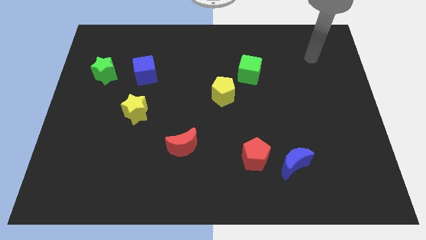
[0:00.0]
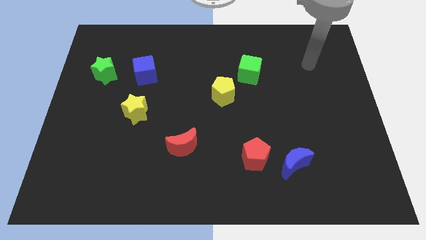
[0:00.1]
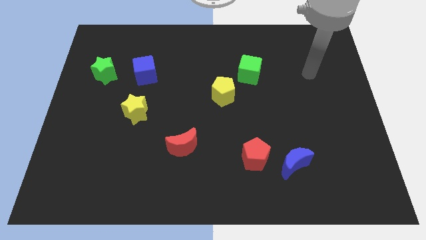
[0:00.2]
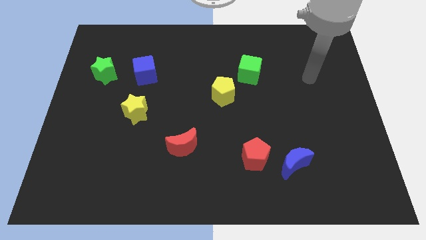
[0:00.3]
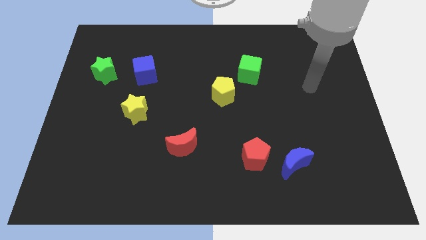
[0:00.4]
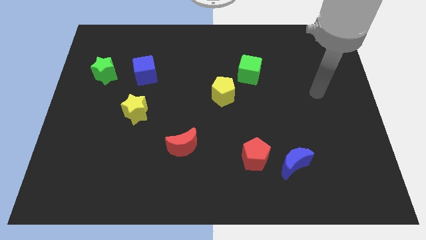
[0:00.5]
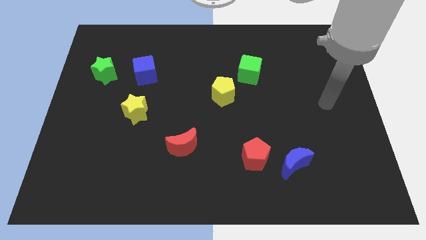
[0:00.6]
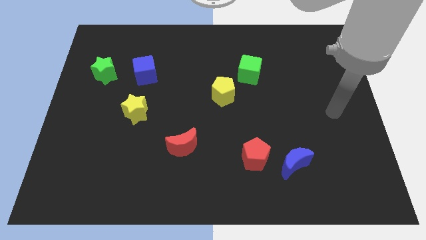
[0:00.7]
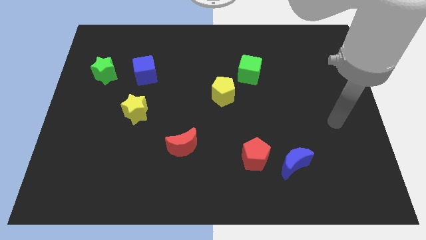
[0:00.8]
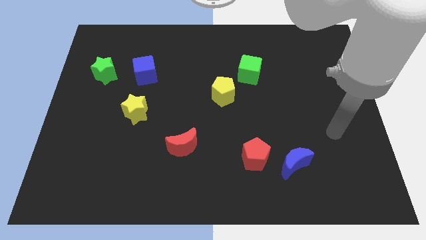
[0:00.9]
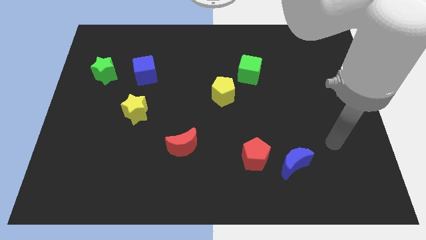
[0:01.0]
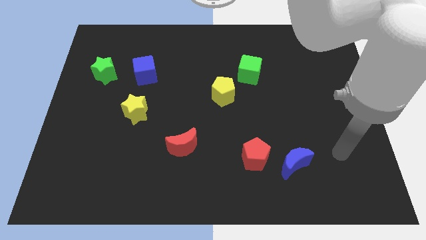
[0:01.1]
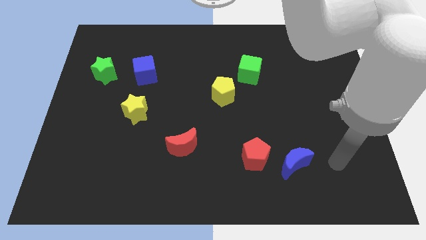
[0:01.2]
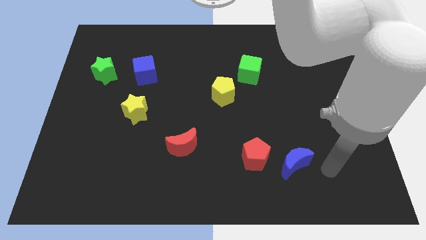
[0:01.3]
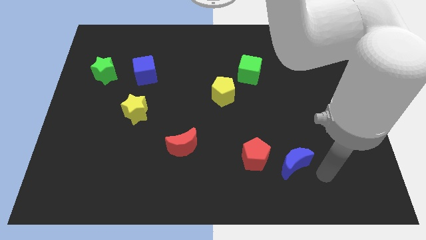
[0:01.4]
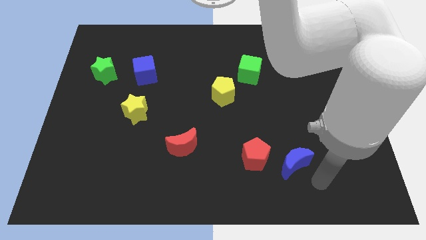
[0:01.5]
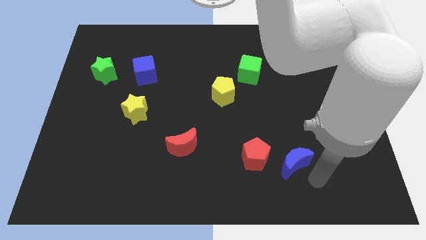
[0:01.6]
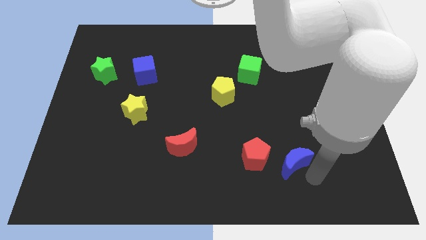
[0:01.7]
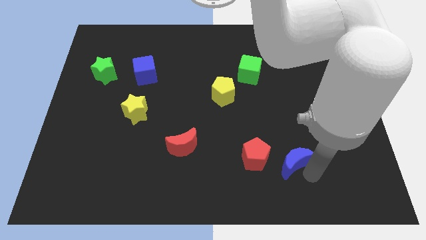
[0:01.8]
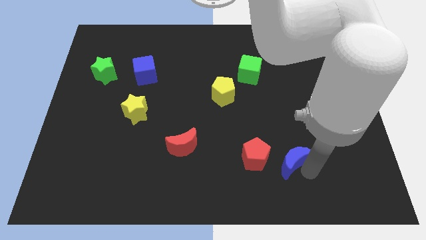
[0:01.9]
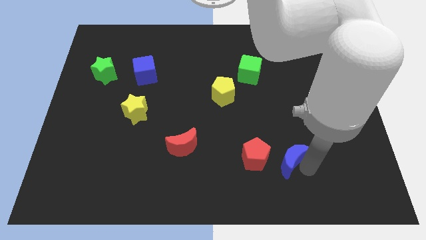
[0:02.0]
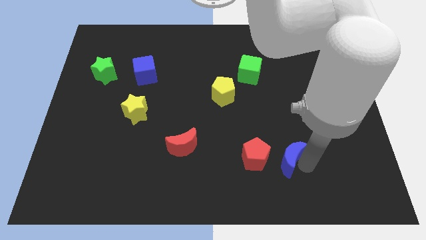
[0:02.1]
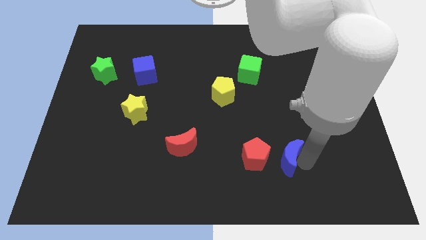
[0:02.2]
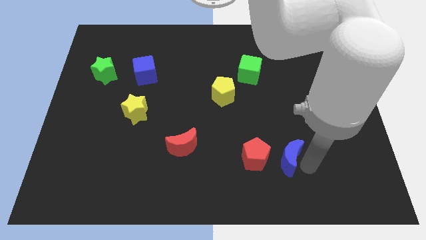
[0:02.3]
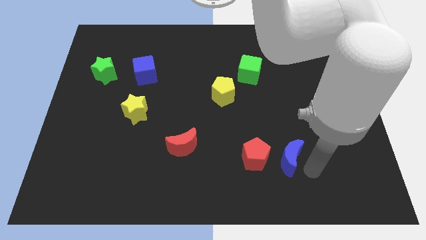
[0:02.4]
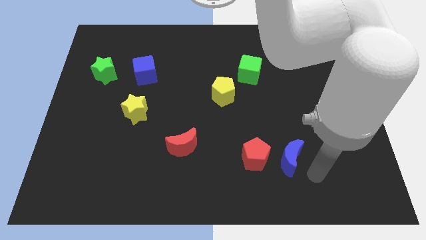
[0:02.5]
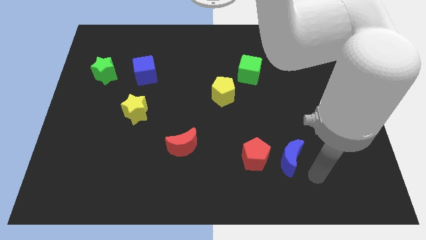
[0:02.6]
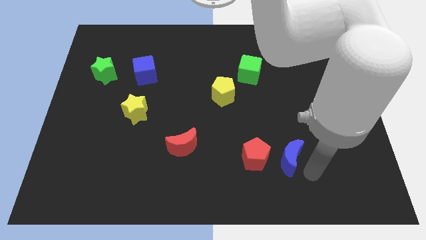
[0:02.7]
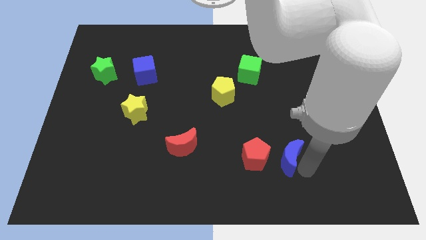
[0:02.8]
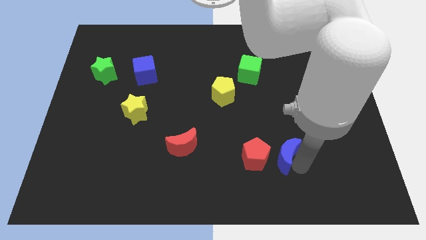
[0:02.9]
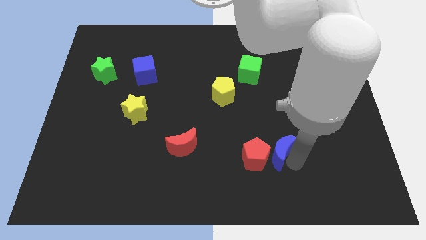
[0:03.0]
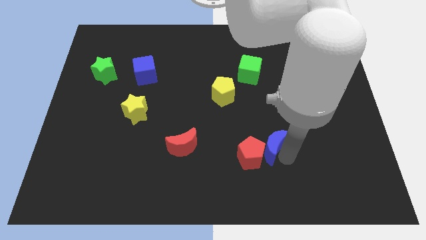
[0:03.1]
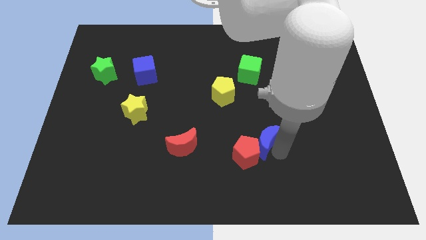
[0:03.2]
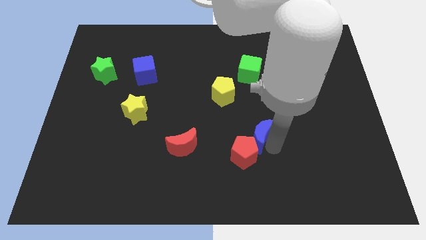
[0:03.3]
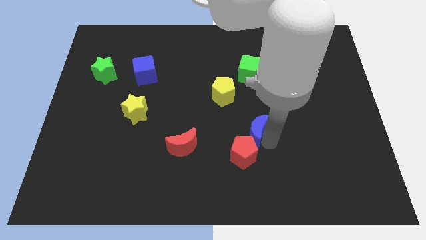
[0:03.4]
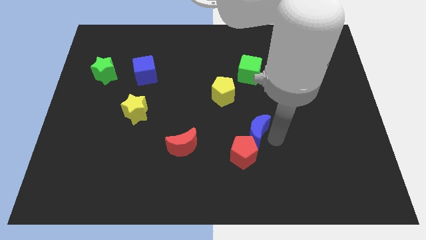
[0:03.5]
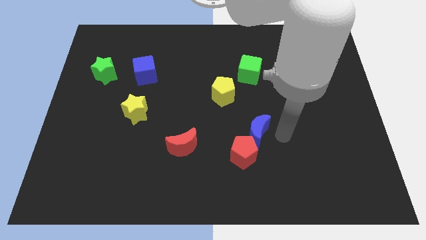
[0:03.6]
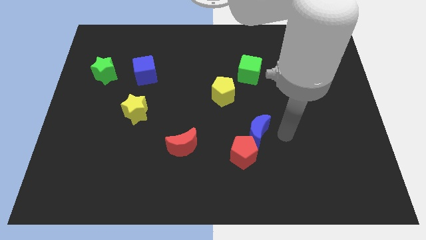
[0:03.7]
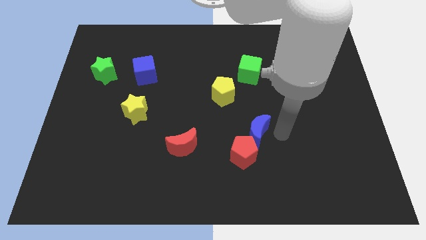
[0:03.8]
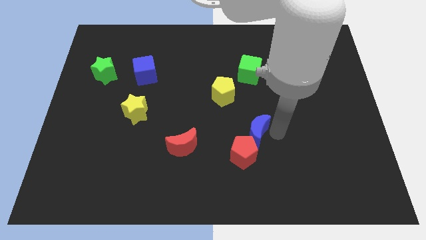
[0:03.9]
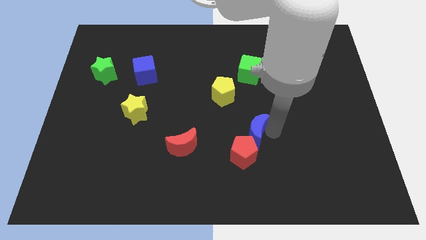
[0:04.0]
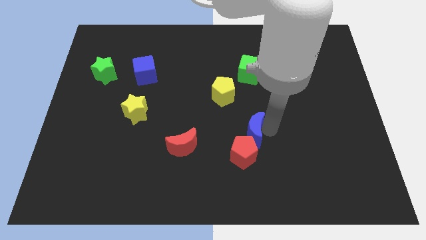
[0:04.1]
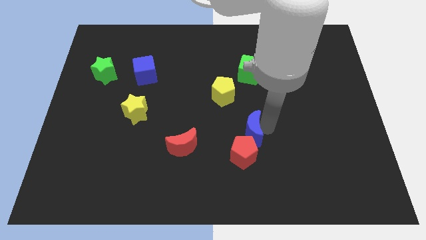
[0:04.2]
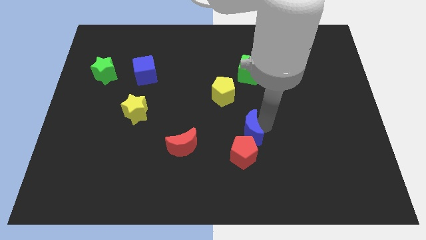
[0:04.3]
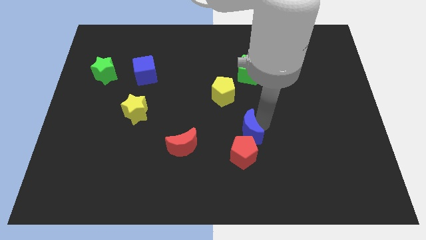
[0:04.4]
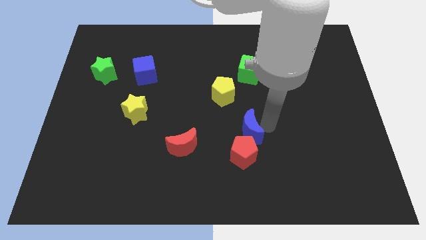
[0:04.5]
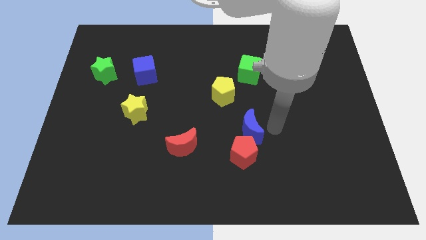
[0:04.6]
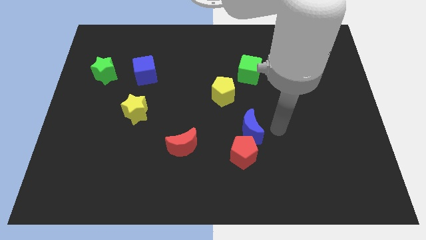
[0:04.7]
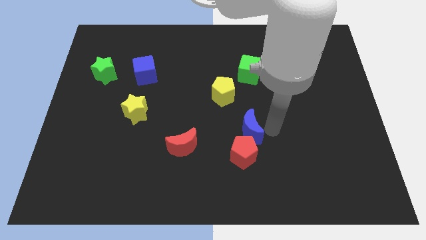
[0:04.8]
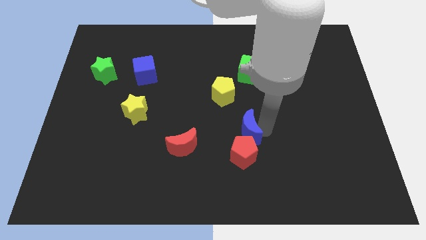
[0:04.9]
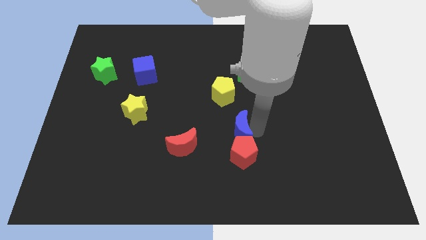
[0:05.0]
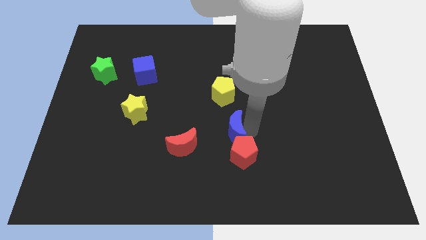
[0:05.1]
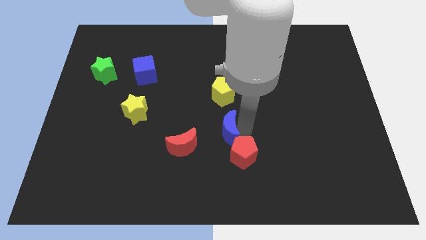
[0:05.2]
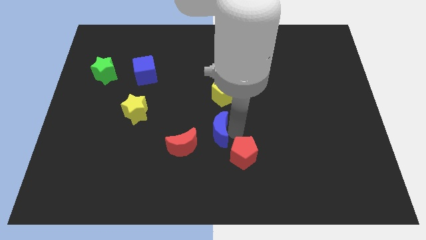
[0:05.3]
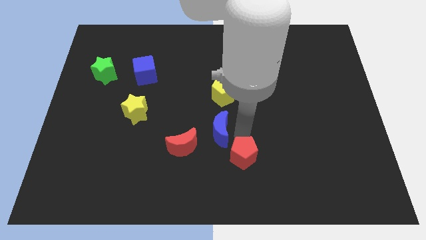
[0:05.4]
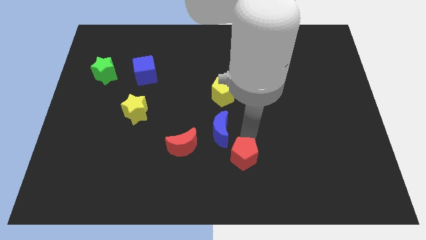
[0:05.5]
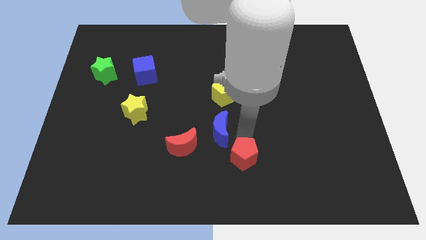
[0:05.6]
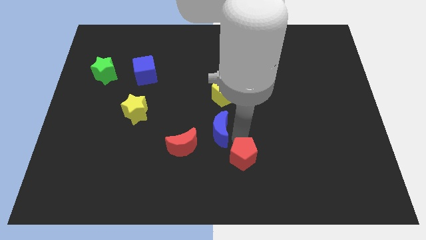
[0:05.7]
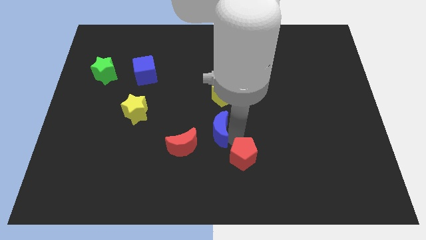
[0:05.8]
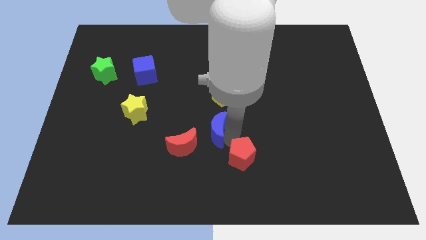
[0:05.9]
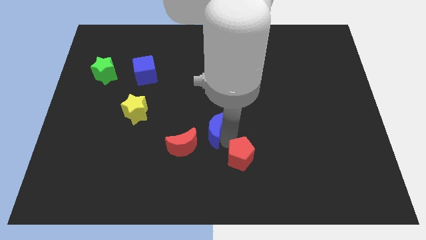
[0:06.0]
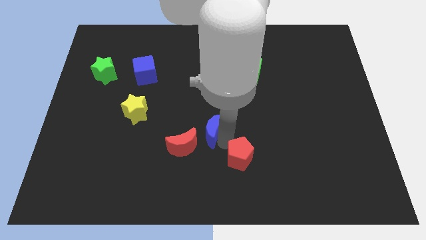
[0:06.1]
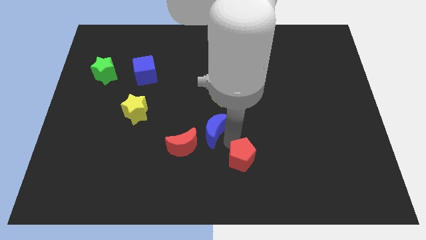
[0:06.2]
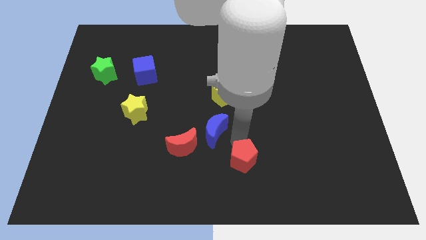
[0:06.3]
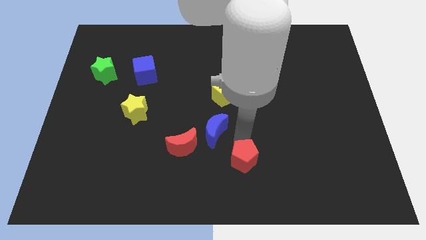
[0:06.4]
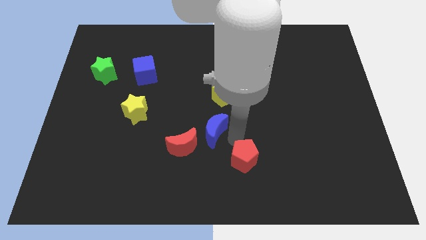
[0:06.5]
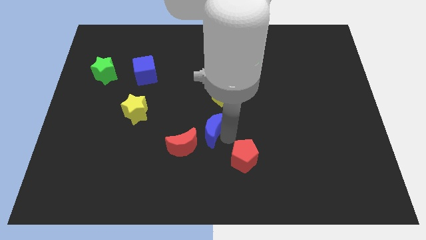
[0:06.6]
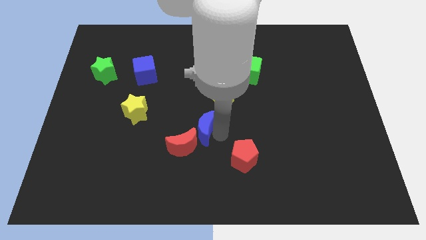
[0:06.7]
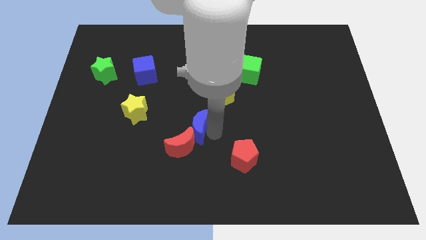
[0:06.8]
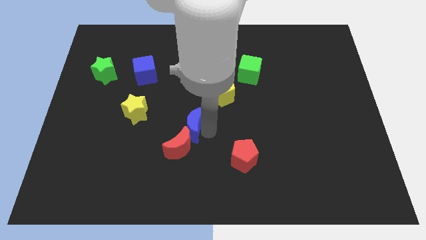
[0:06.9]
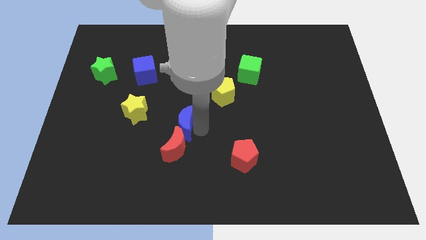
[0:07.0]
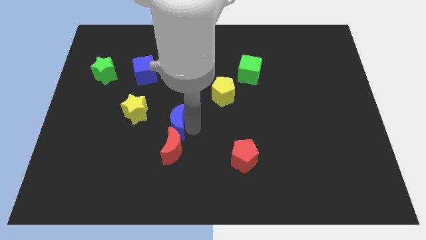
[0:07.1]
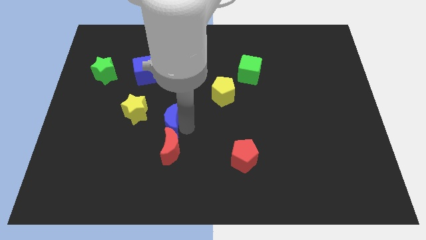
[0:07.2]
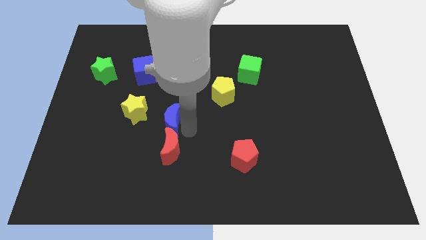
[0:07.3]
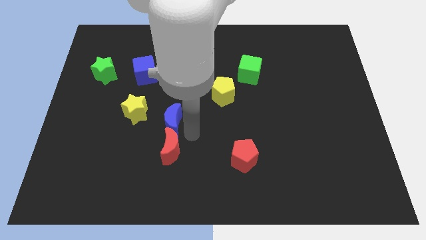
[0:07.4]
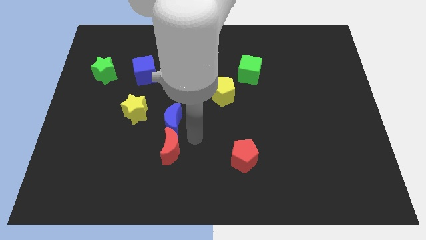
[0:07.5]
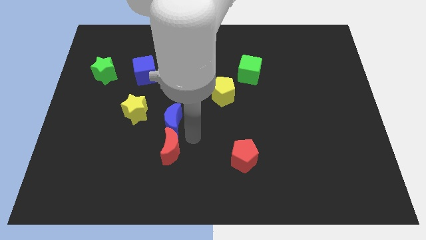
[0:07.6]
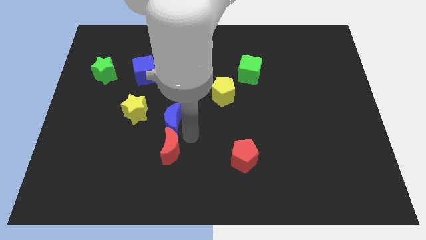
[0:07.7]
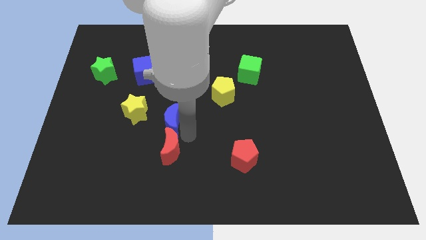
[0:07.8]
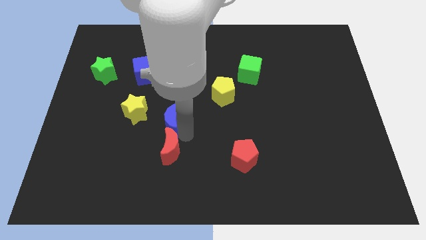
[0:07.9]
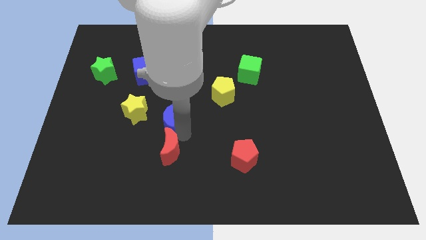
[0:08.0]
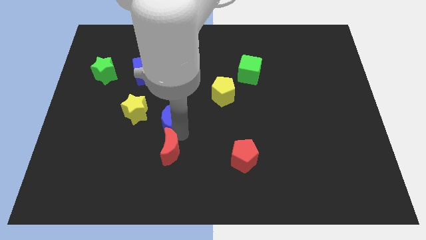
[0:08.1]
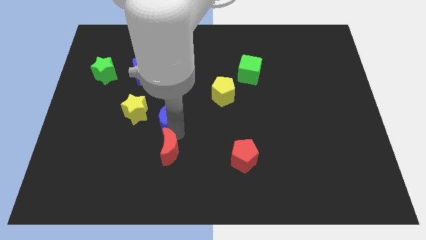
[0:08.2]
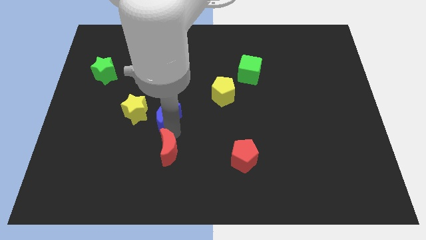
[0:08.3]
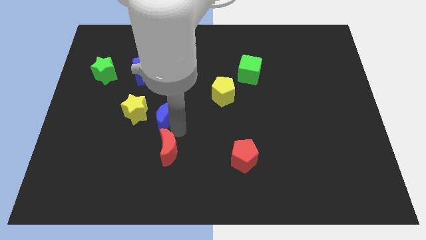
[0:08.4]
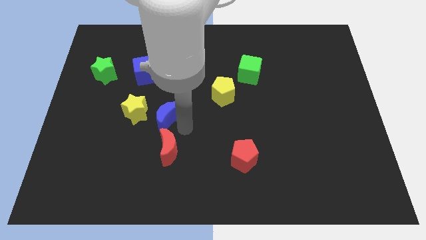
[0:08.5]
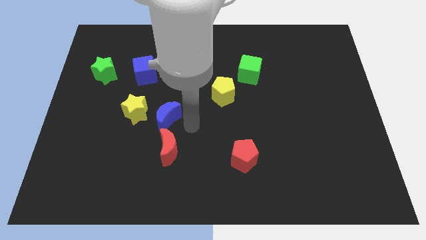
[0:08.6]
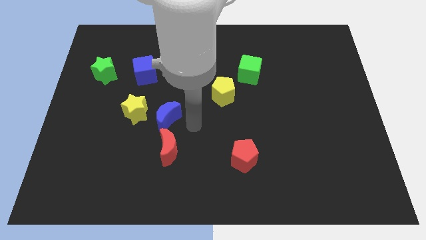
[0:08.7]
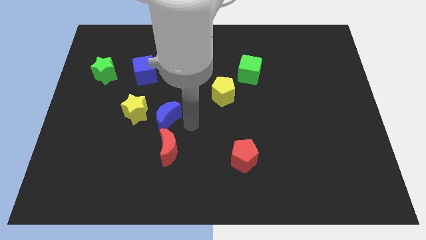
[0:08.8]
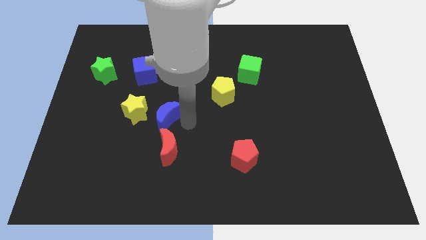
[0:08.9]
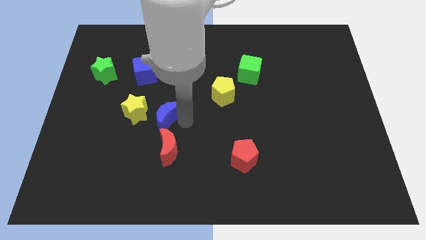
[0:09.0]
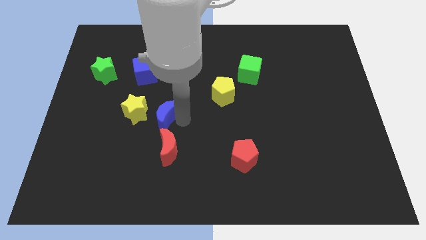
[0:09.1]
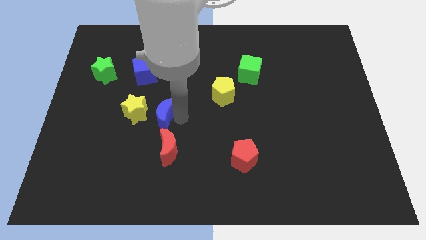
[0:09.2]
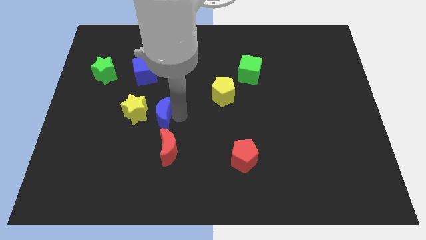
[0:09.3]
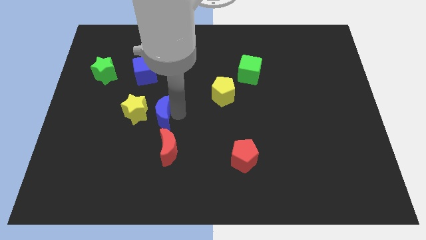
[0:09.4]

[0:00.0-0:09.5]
put the blue moon next to the yellow star
